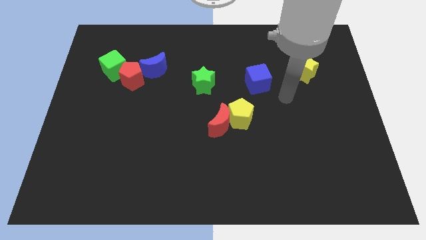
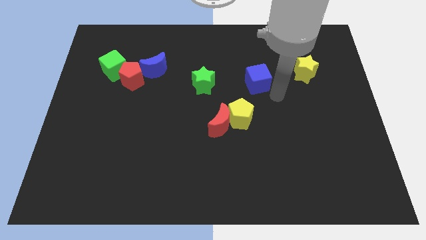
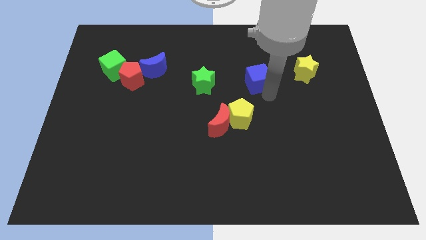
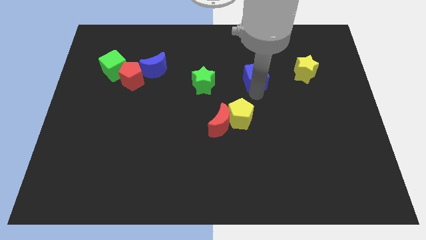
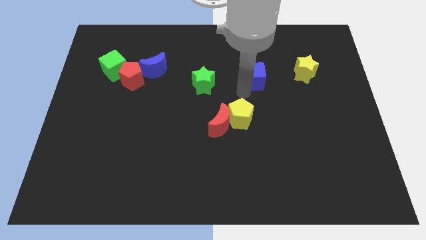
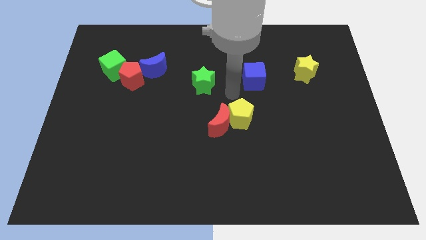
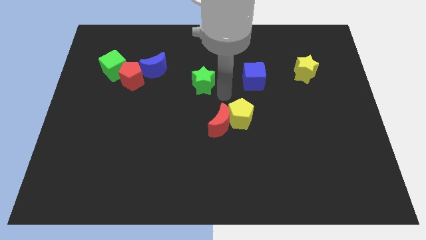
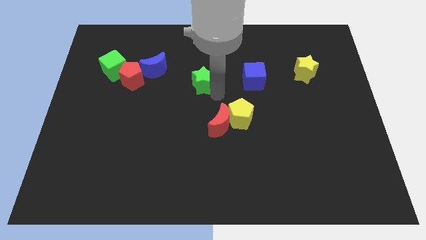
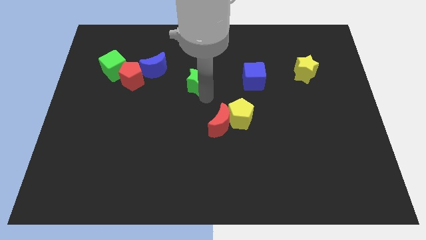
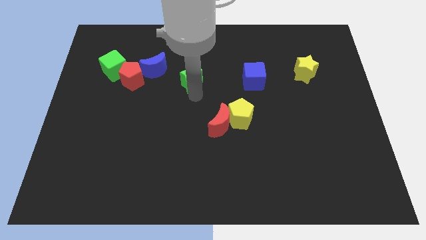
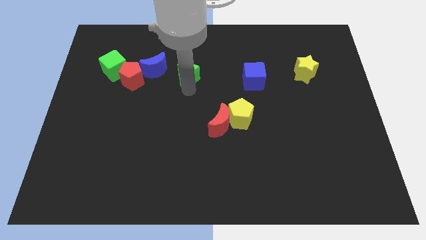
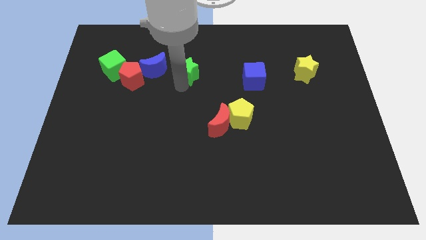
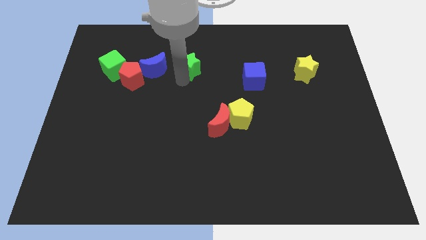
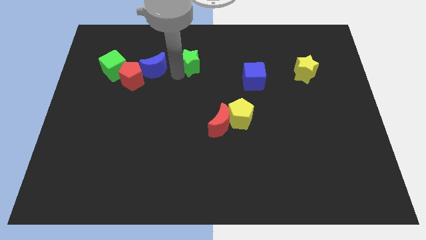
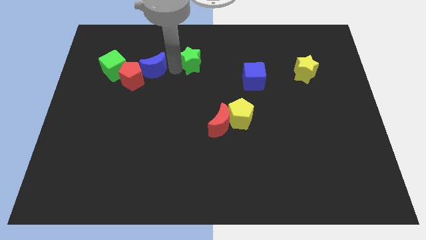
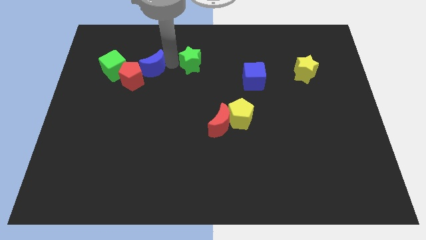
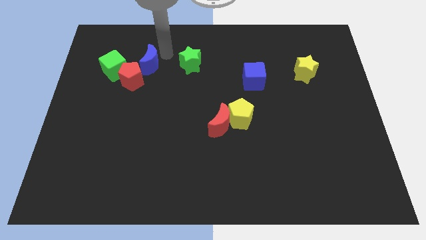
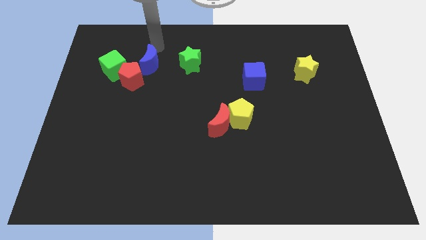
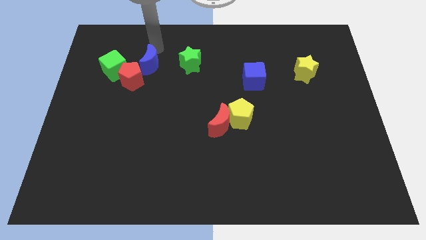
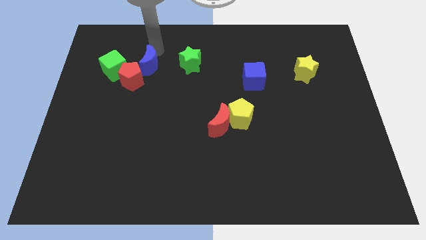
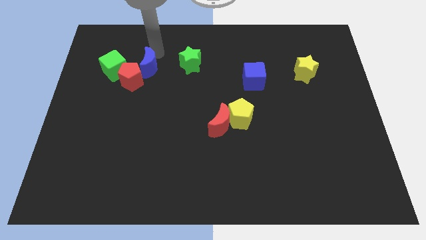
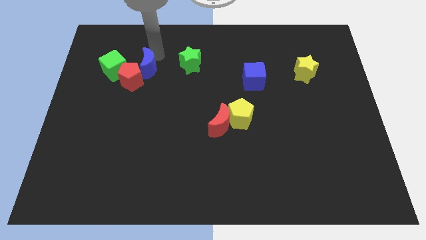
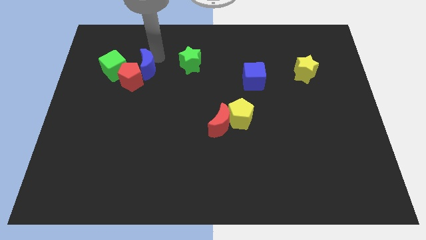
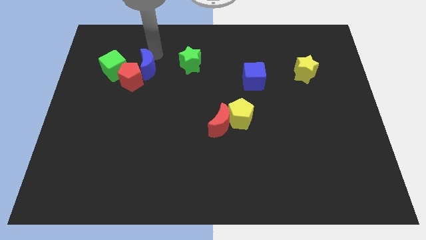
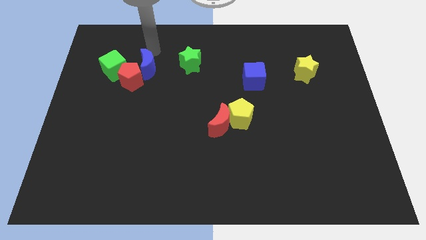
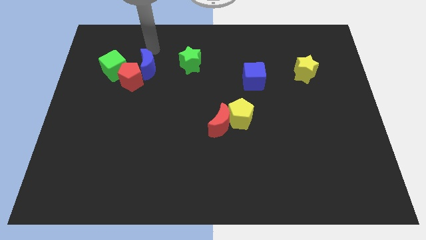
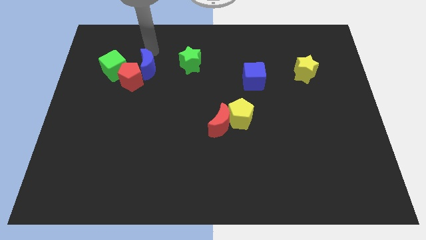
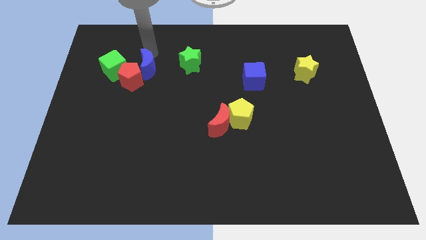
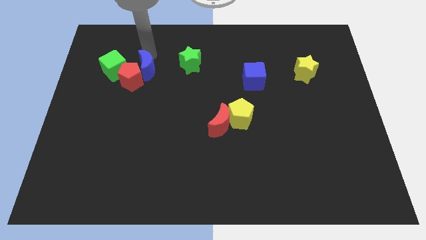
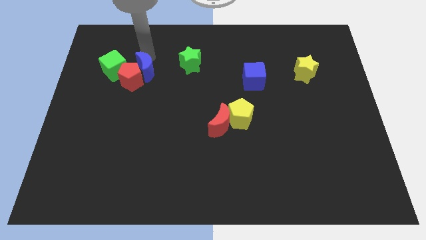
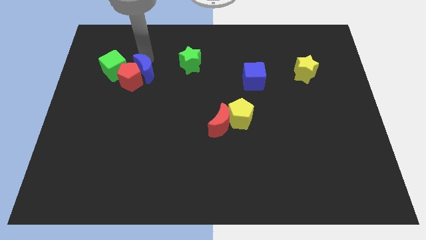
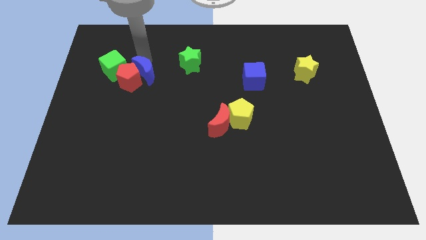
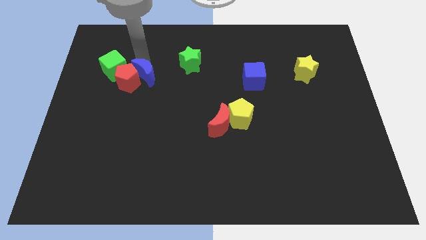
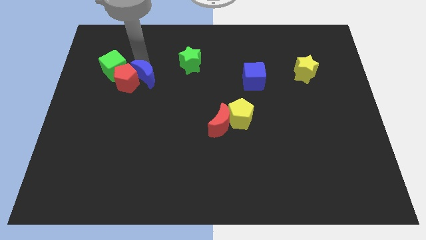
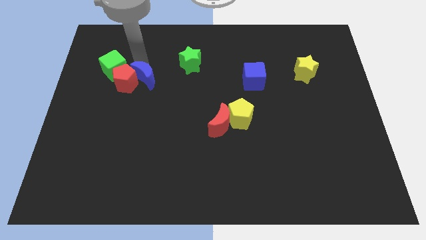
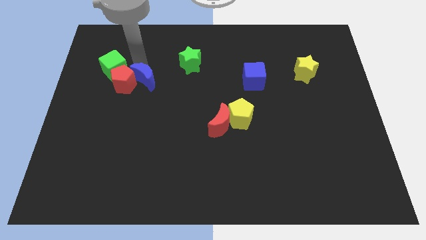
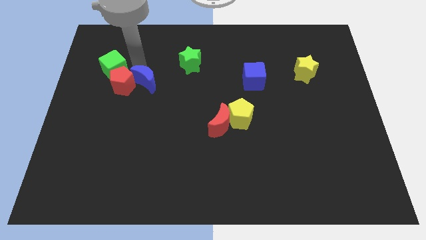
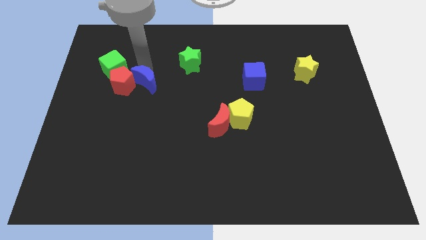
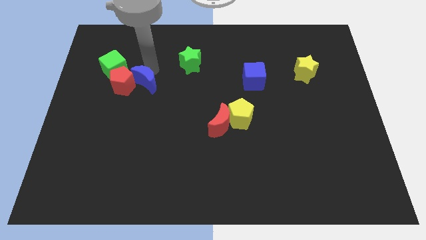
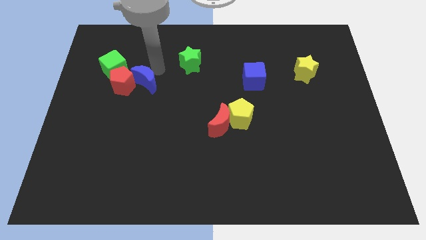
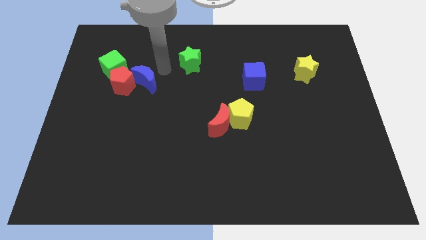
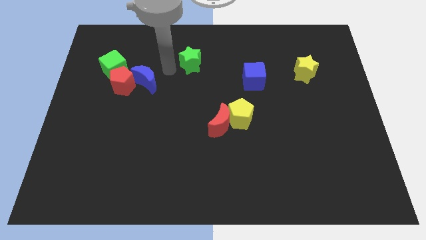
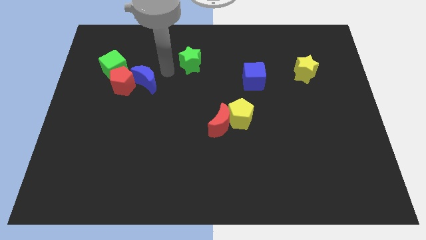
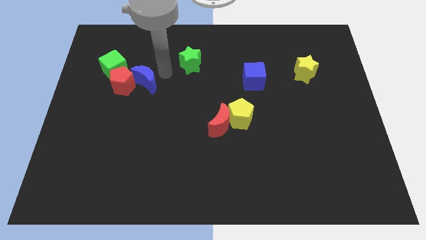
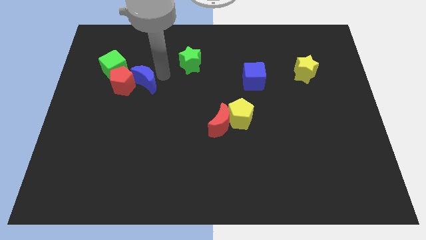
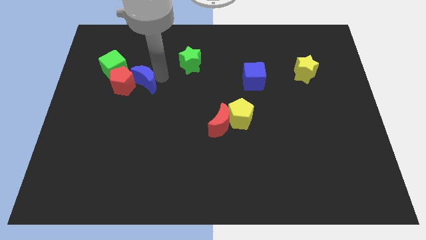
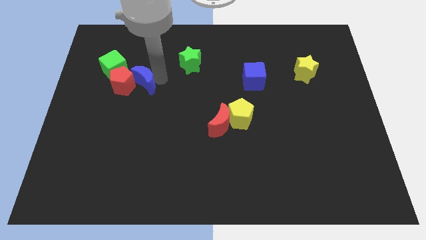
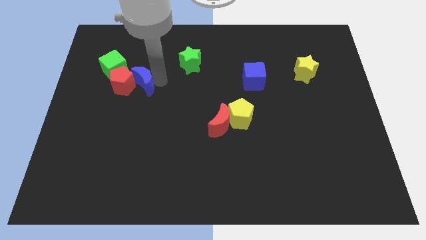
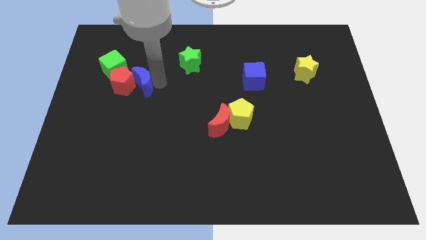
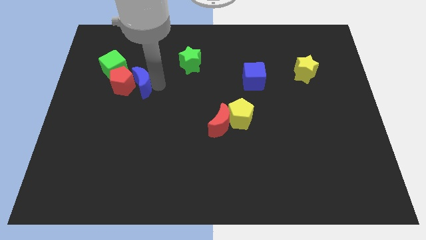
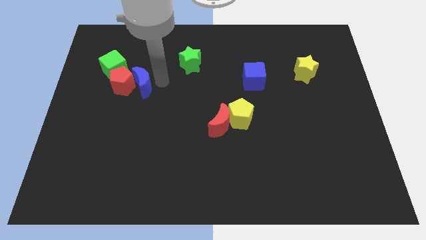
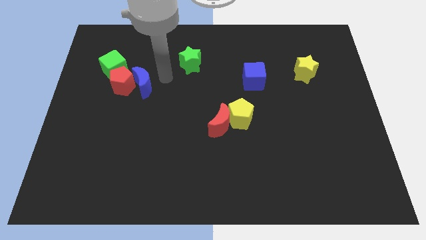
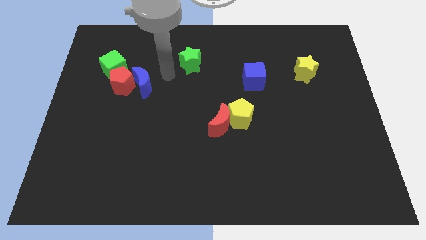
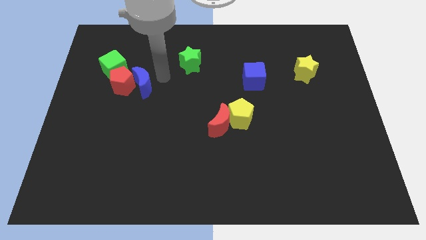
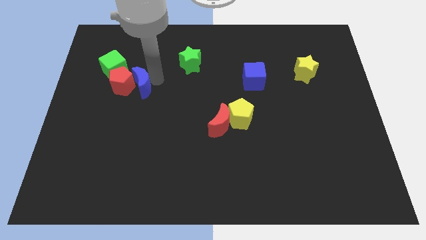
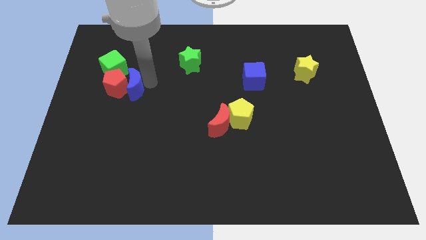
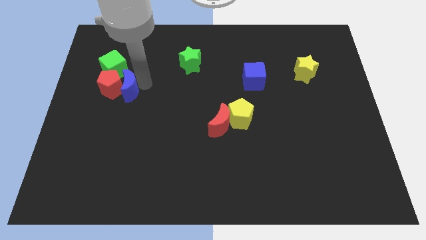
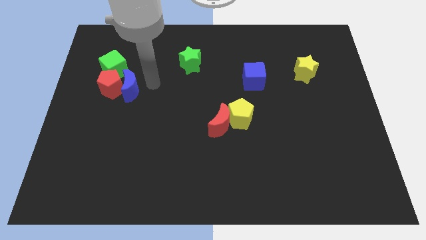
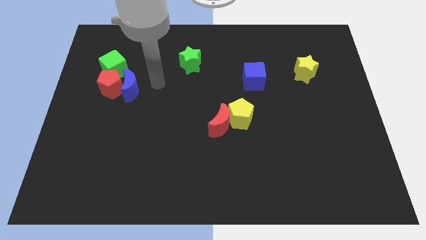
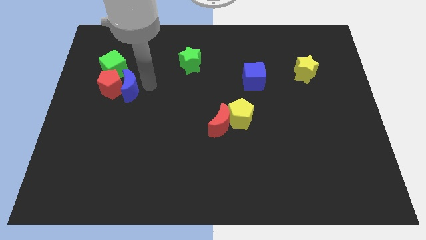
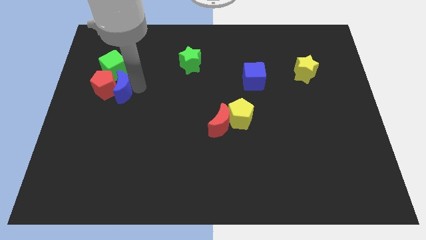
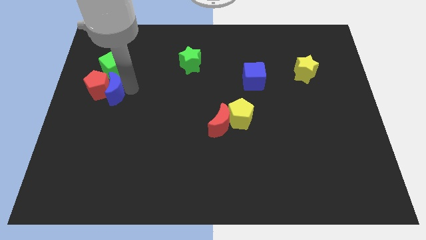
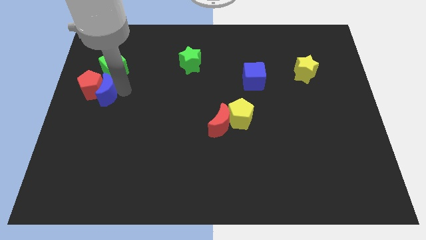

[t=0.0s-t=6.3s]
push the blue moon to the left side of the board
